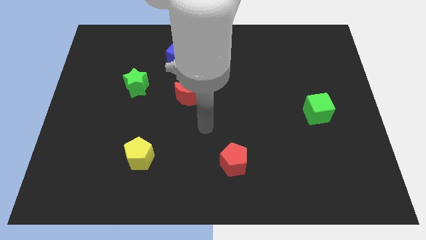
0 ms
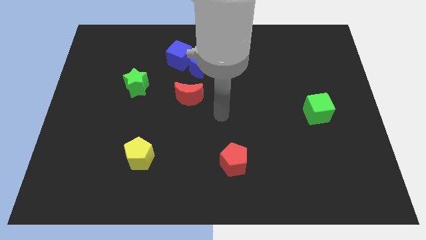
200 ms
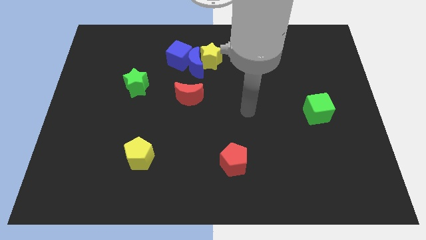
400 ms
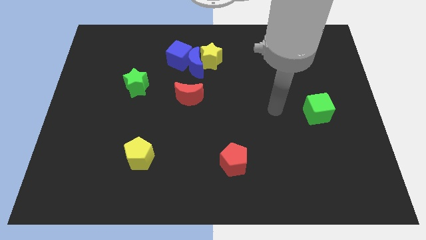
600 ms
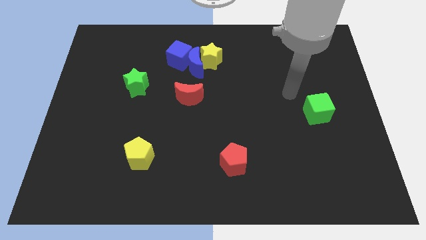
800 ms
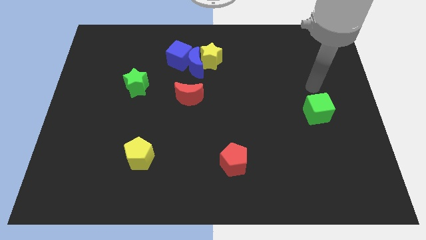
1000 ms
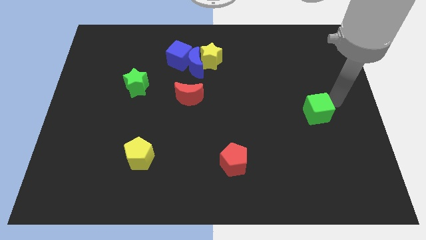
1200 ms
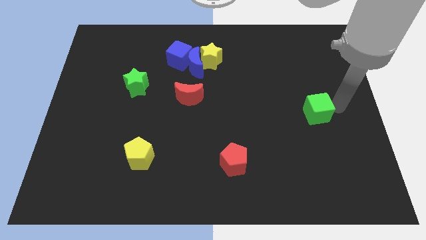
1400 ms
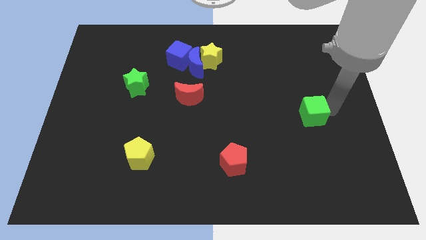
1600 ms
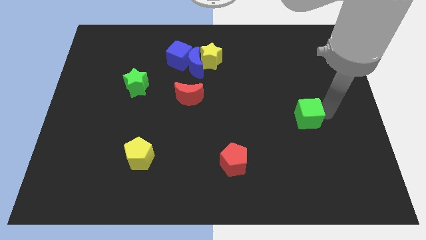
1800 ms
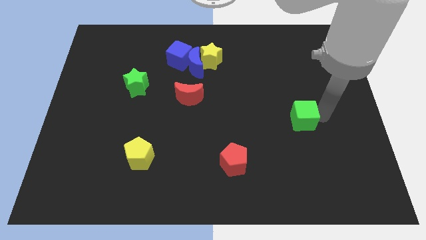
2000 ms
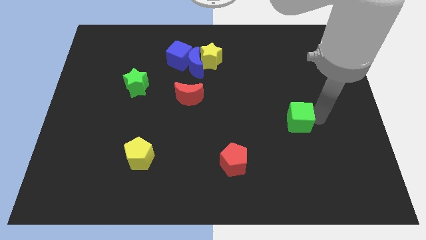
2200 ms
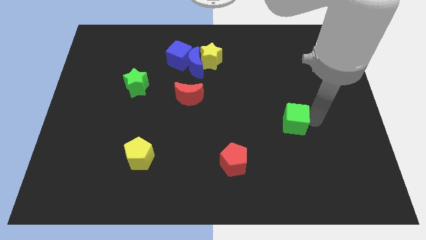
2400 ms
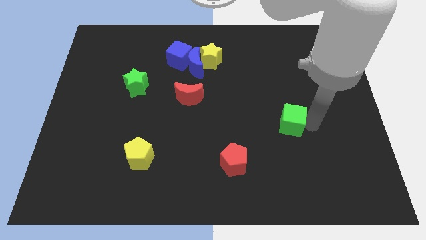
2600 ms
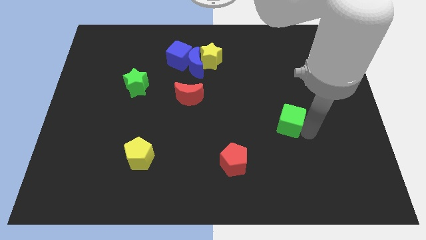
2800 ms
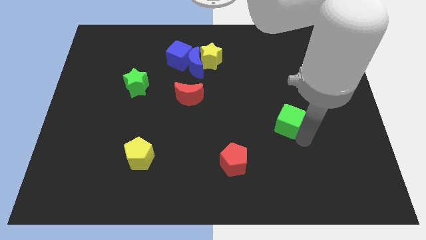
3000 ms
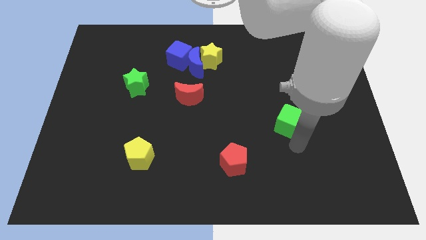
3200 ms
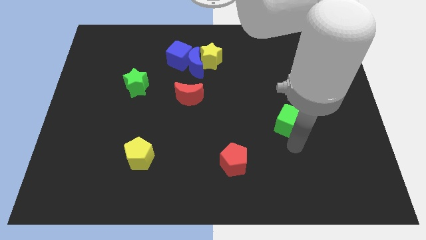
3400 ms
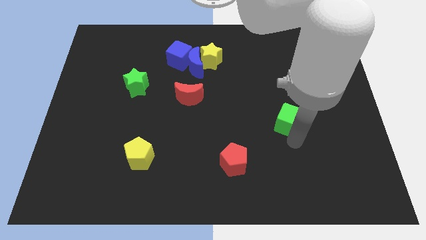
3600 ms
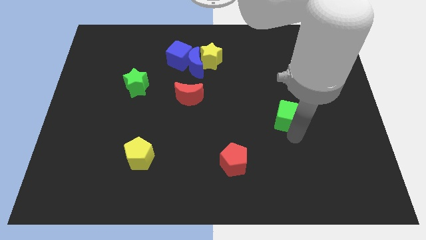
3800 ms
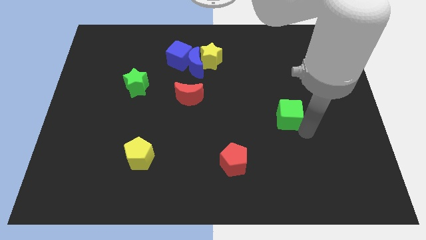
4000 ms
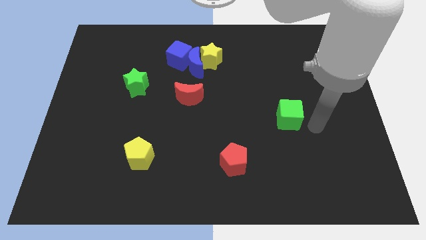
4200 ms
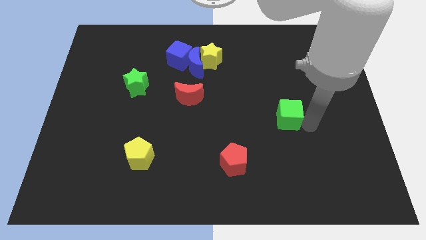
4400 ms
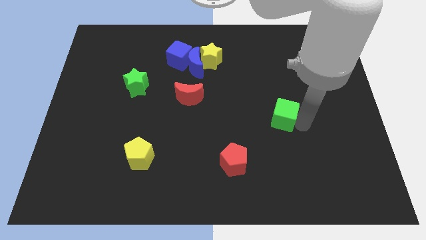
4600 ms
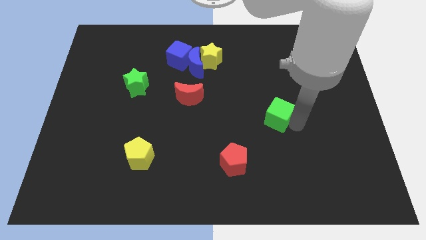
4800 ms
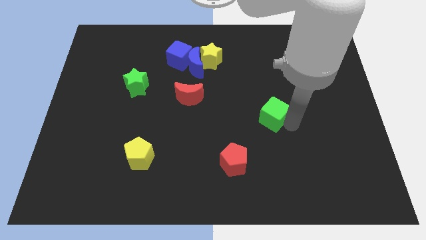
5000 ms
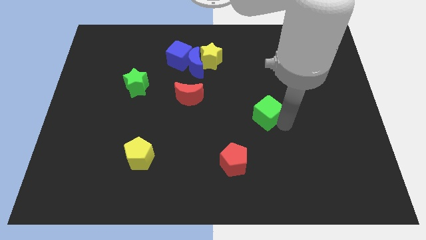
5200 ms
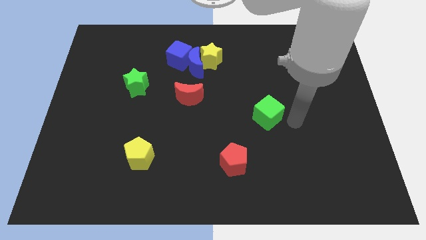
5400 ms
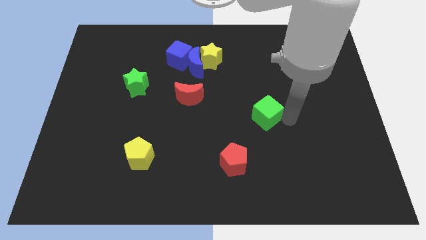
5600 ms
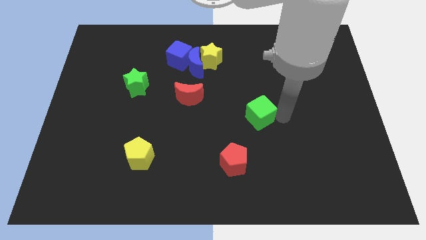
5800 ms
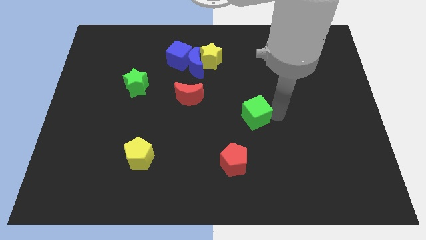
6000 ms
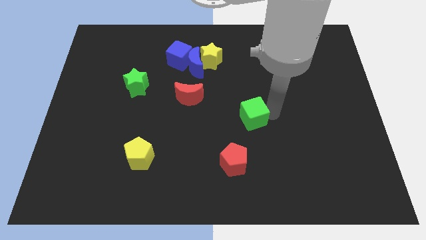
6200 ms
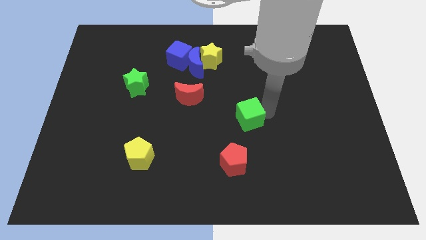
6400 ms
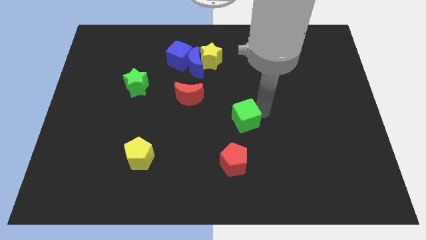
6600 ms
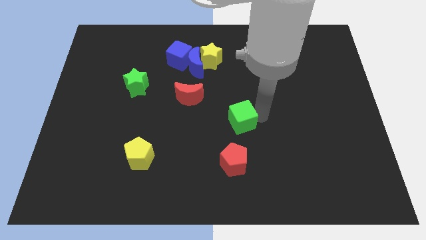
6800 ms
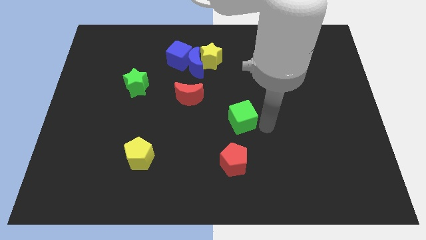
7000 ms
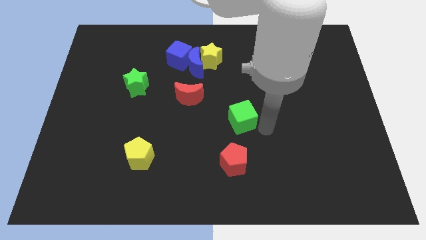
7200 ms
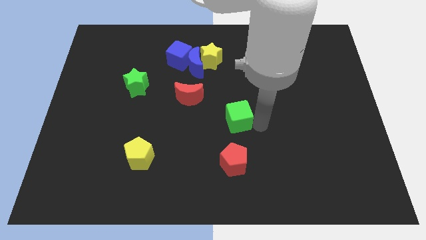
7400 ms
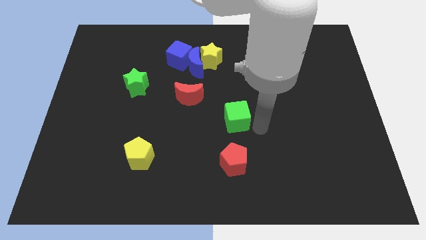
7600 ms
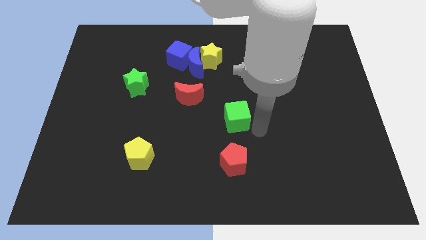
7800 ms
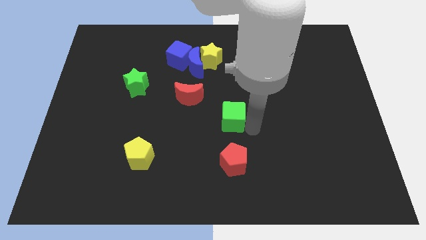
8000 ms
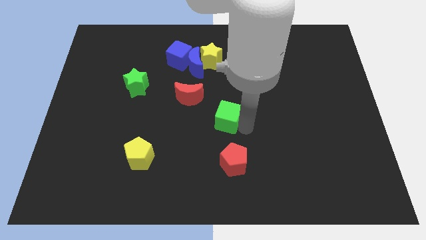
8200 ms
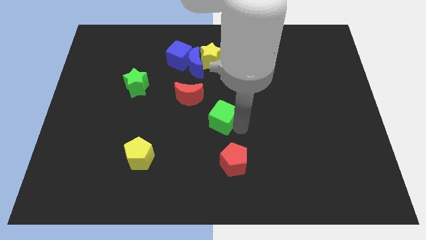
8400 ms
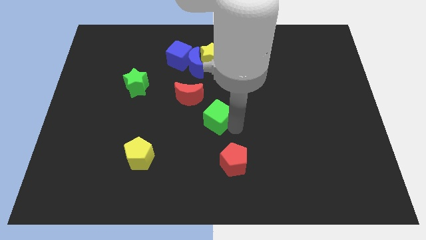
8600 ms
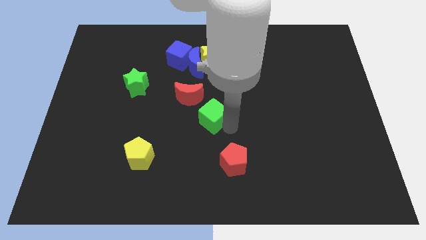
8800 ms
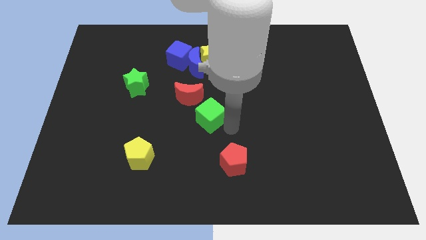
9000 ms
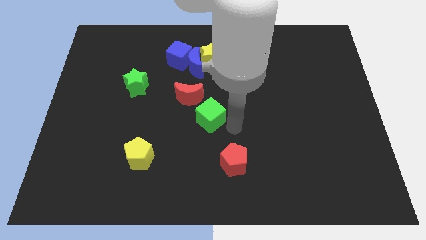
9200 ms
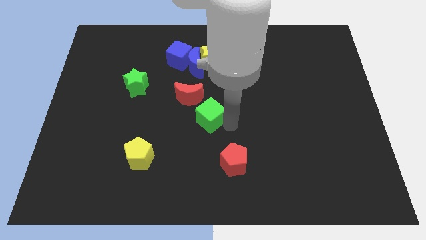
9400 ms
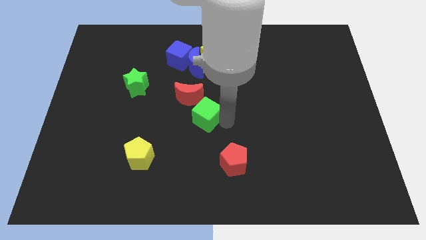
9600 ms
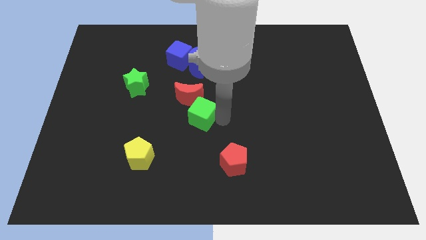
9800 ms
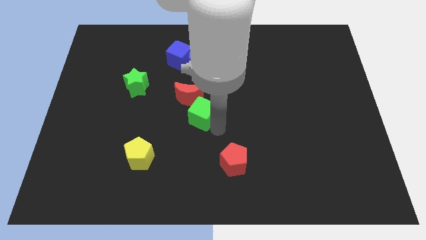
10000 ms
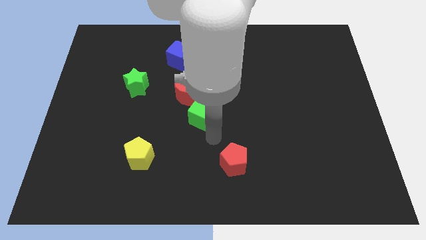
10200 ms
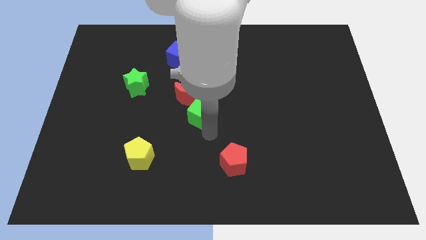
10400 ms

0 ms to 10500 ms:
slide the green cube to the bottom side of the blue moon
